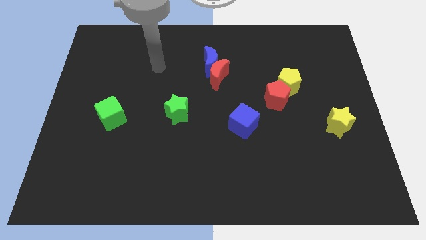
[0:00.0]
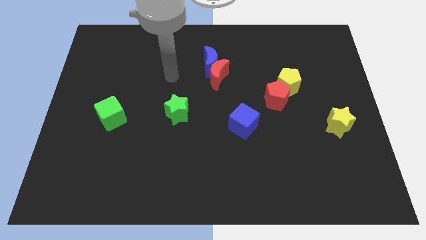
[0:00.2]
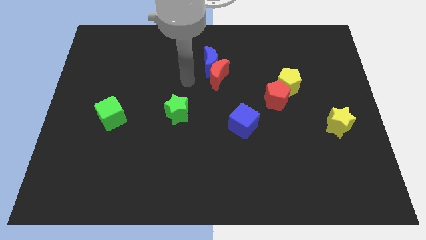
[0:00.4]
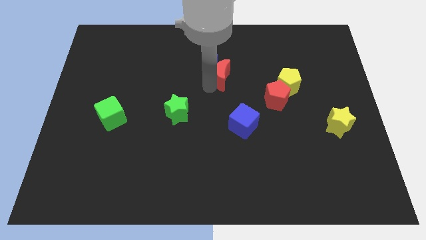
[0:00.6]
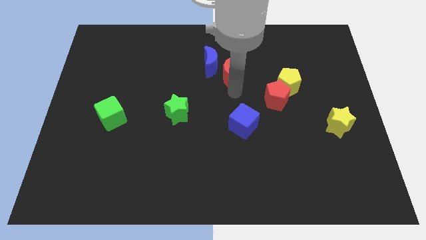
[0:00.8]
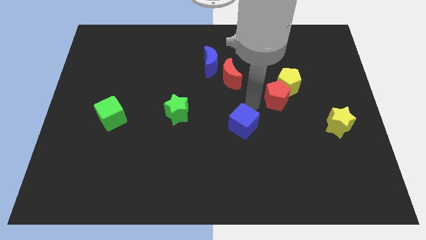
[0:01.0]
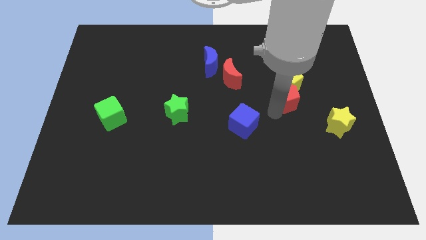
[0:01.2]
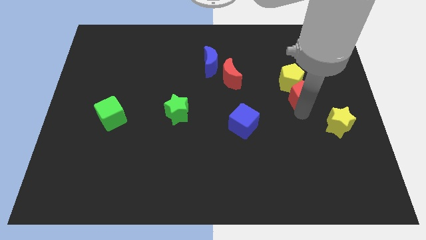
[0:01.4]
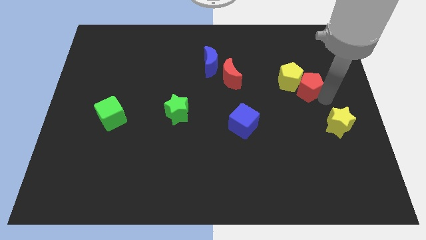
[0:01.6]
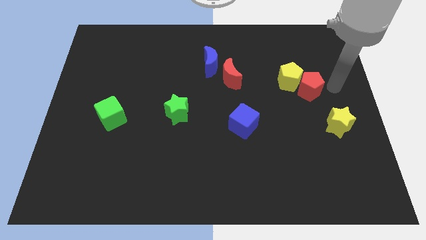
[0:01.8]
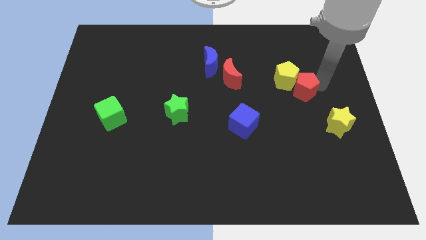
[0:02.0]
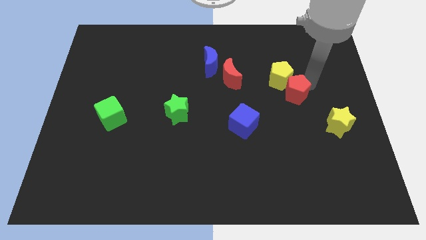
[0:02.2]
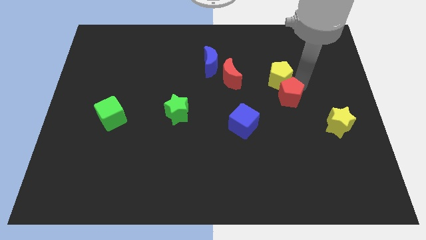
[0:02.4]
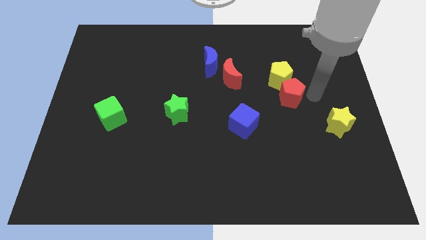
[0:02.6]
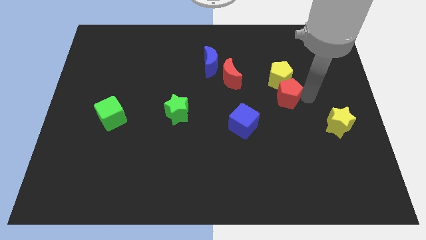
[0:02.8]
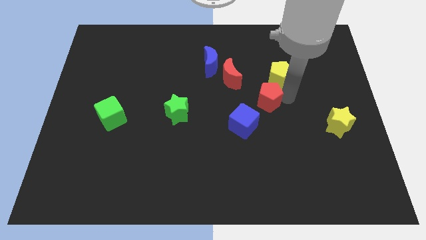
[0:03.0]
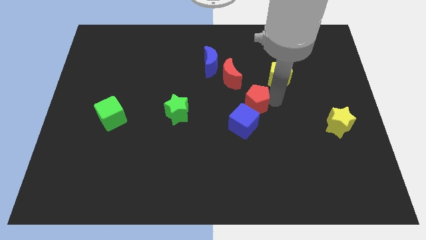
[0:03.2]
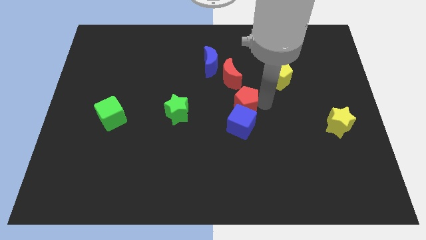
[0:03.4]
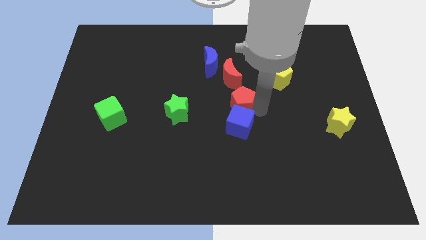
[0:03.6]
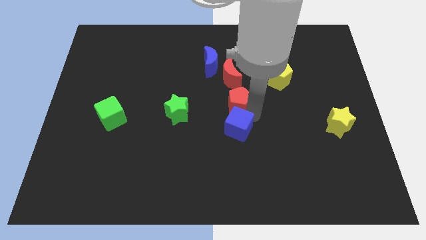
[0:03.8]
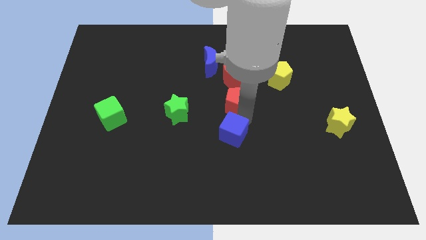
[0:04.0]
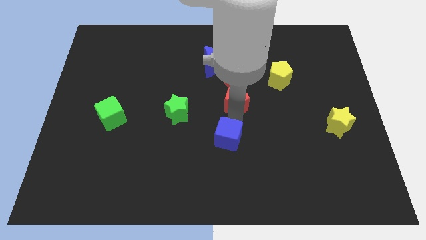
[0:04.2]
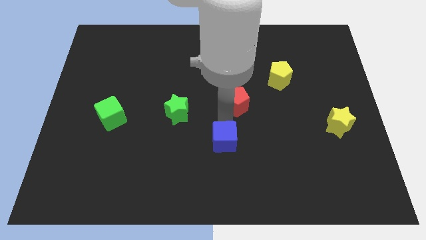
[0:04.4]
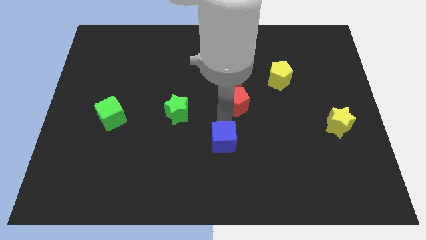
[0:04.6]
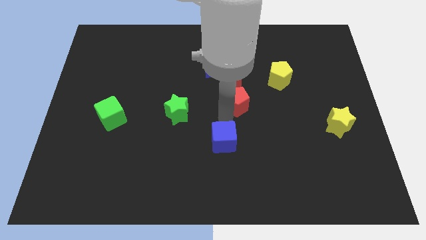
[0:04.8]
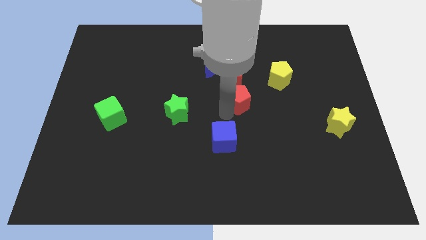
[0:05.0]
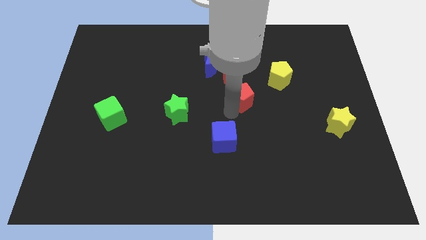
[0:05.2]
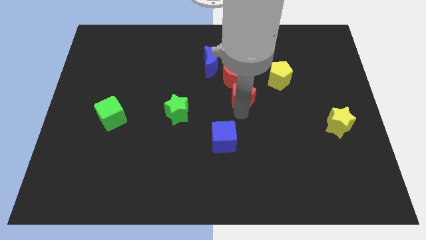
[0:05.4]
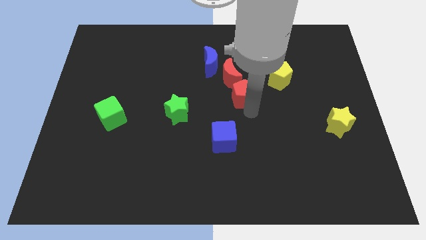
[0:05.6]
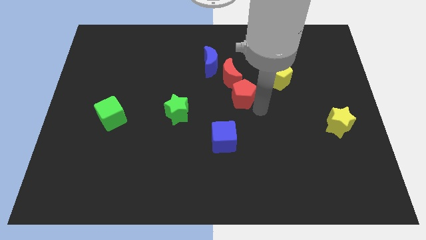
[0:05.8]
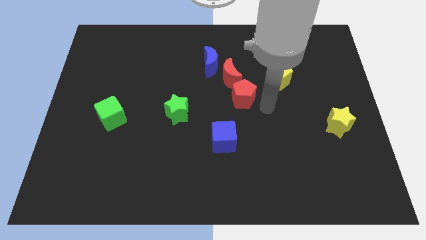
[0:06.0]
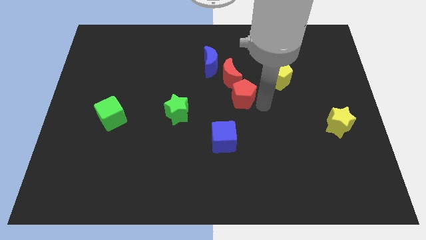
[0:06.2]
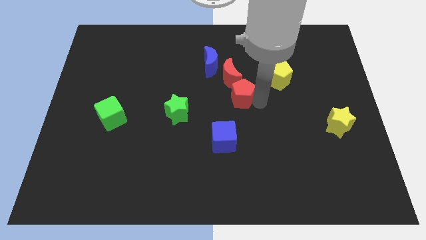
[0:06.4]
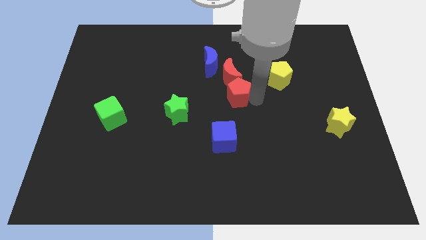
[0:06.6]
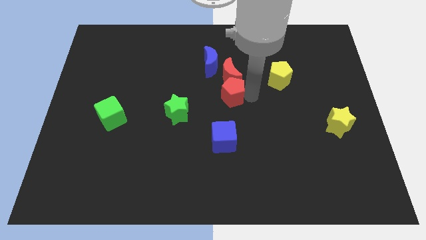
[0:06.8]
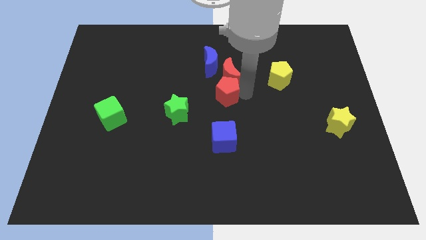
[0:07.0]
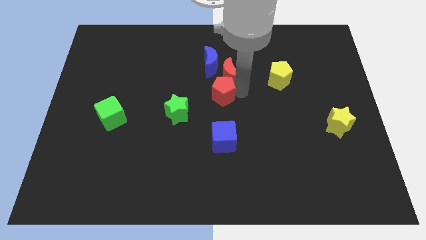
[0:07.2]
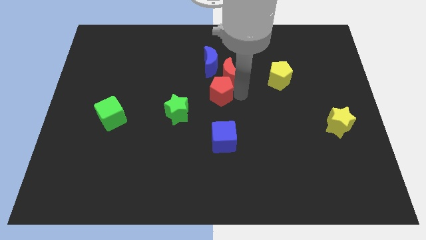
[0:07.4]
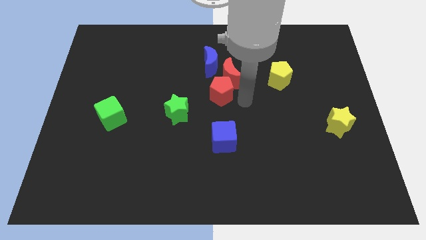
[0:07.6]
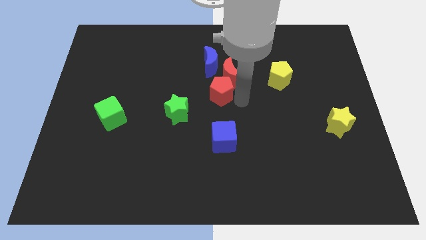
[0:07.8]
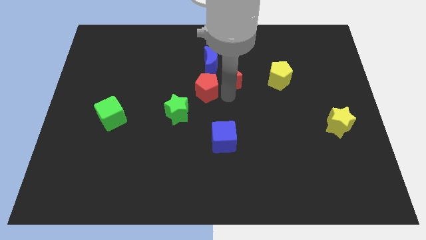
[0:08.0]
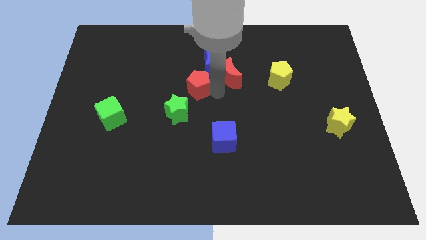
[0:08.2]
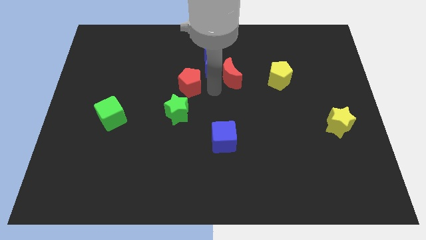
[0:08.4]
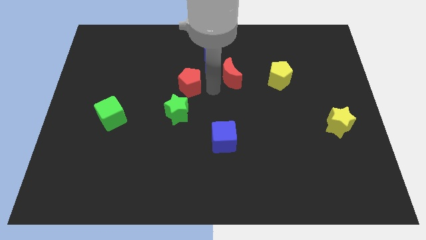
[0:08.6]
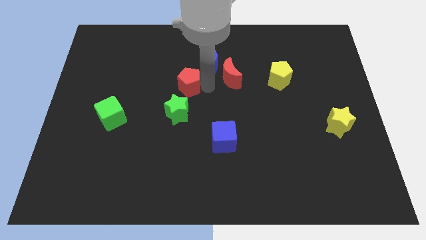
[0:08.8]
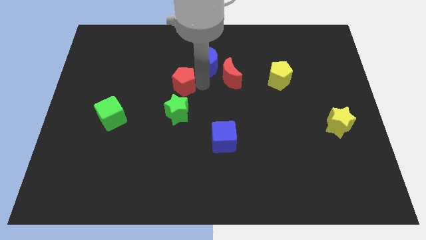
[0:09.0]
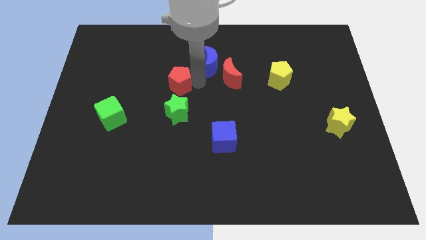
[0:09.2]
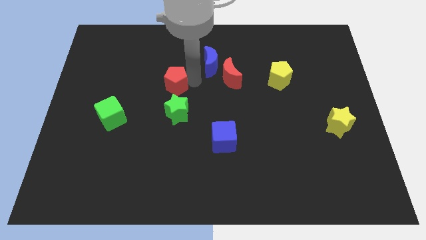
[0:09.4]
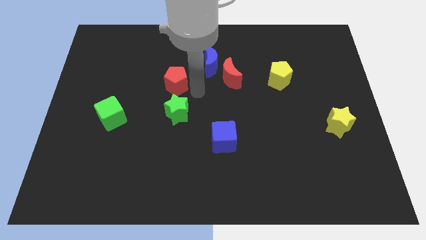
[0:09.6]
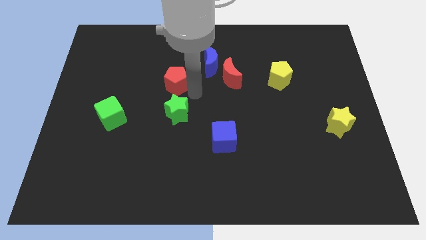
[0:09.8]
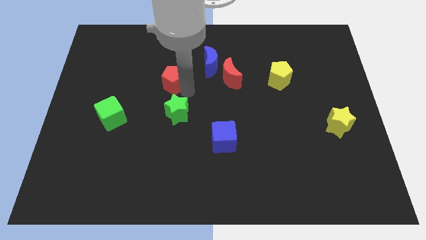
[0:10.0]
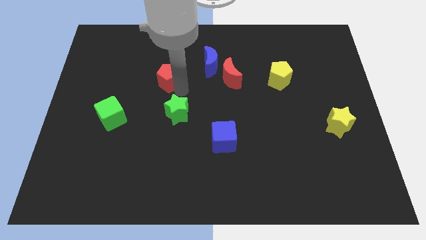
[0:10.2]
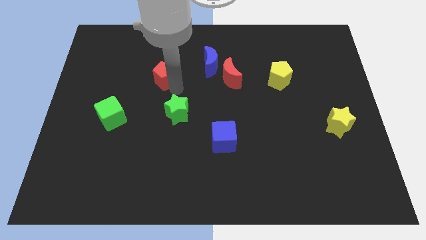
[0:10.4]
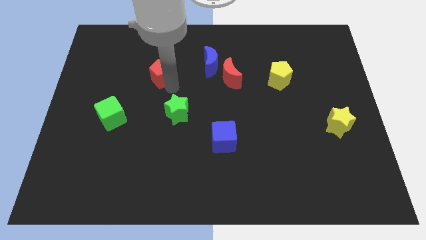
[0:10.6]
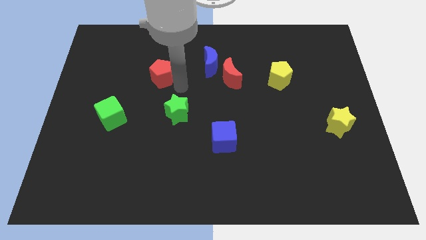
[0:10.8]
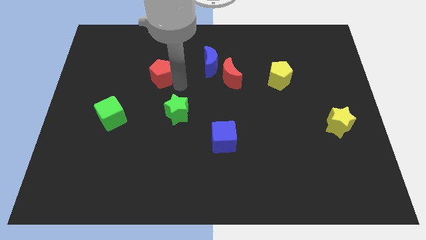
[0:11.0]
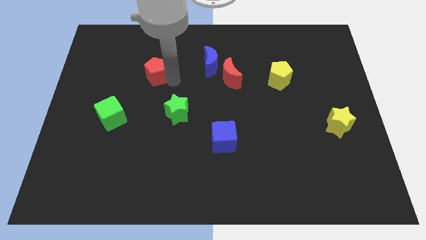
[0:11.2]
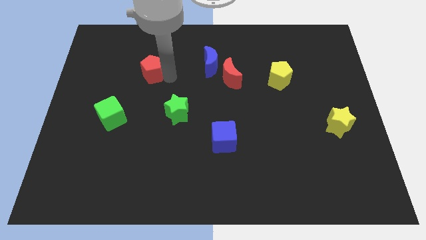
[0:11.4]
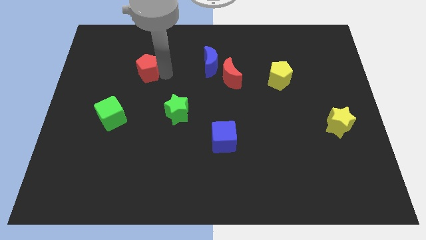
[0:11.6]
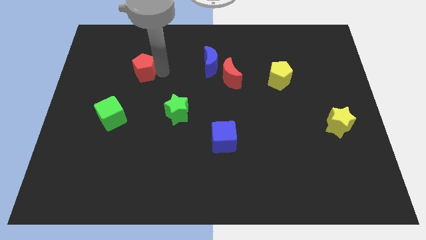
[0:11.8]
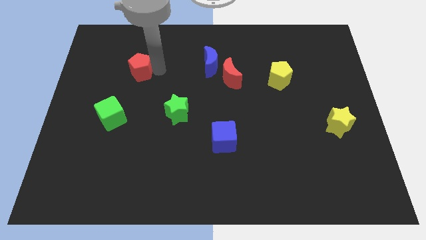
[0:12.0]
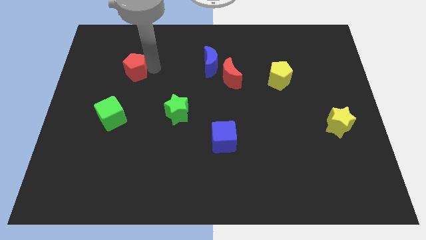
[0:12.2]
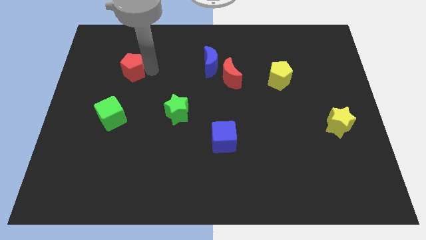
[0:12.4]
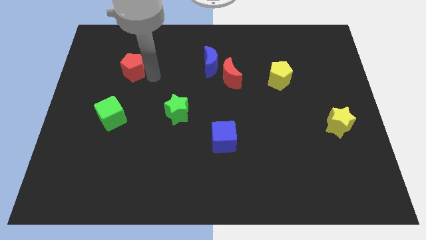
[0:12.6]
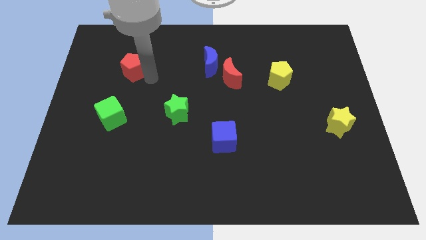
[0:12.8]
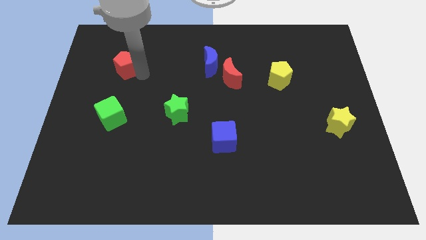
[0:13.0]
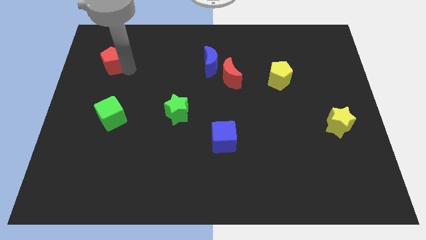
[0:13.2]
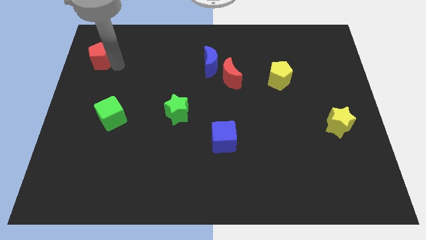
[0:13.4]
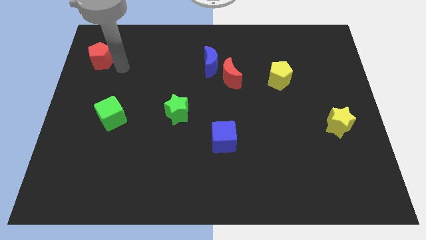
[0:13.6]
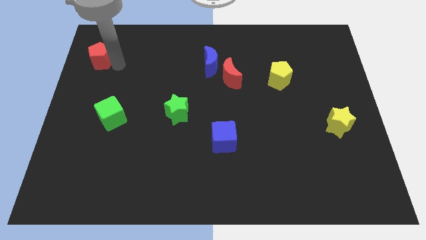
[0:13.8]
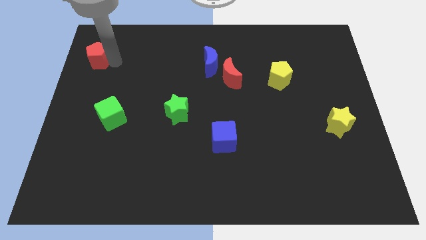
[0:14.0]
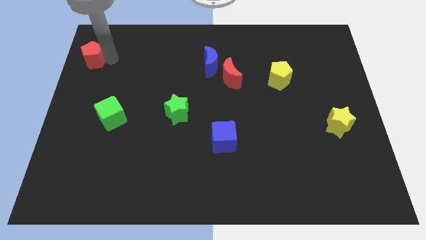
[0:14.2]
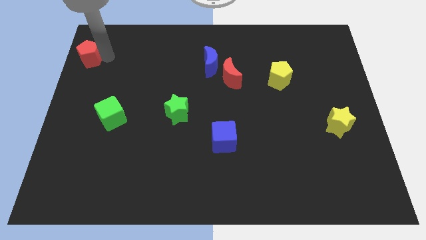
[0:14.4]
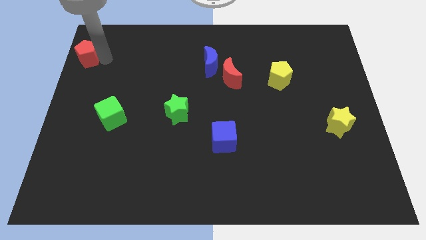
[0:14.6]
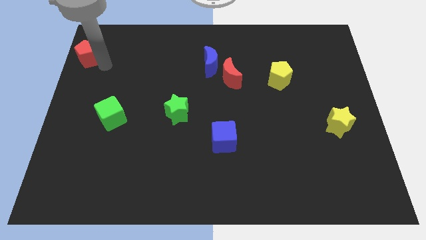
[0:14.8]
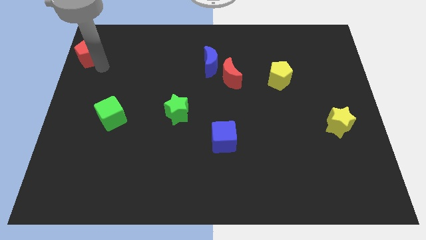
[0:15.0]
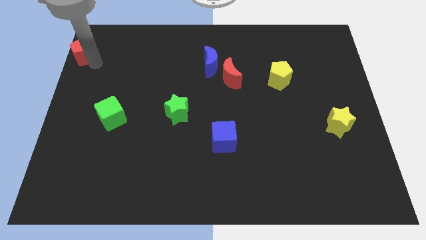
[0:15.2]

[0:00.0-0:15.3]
put the red pentagon to the top left of the board

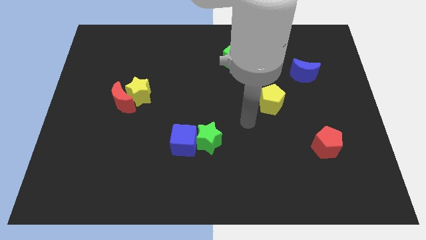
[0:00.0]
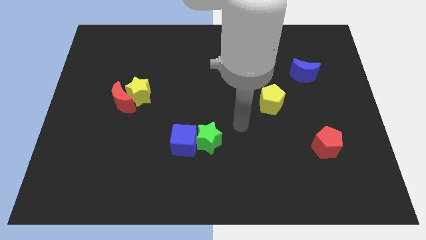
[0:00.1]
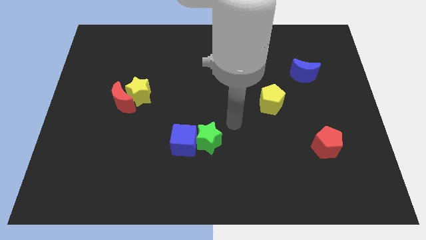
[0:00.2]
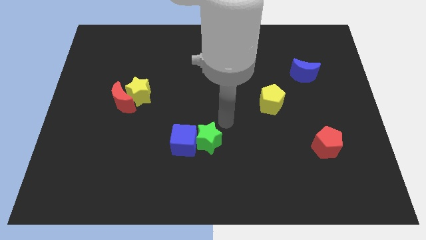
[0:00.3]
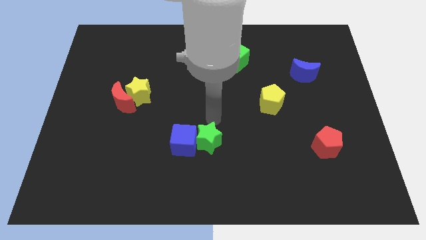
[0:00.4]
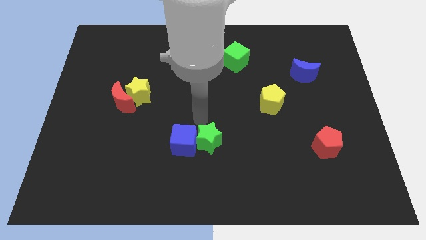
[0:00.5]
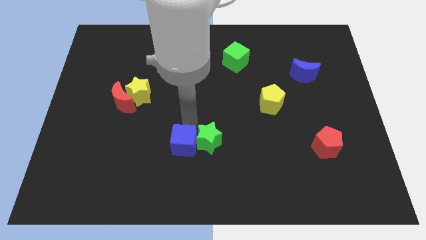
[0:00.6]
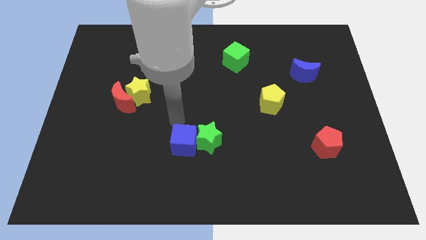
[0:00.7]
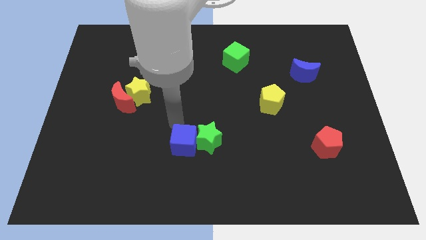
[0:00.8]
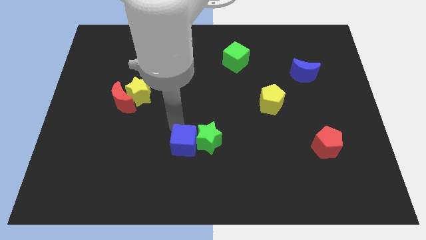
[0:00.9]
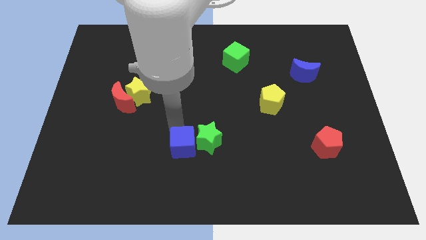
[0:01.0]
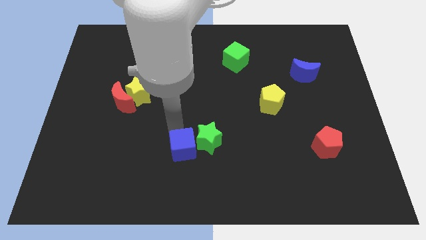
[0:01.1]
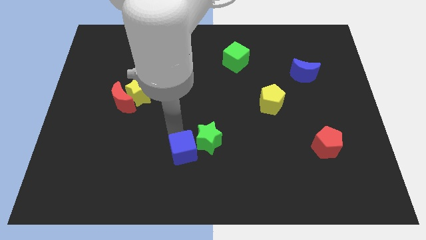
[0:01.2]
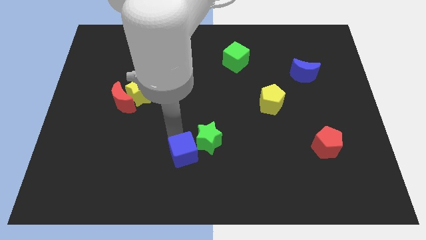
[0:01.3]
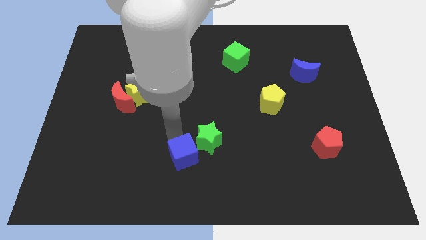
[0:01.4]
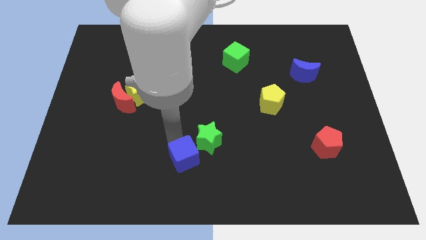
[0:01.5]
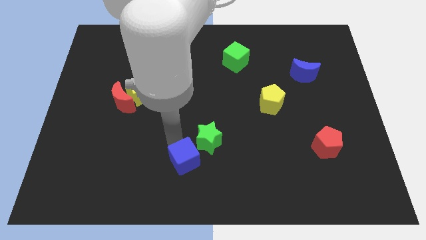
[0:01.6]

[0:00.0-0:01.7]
put the blue cube to the bottom side
